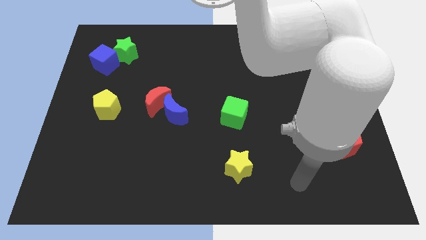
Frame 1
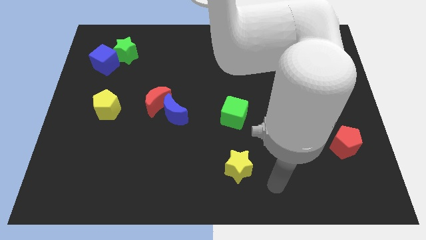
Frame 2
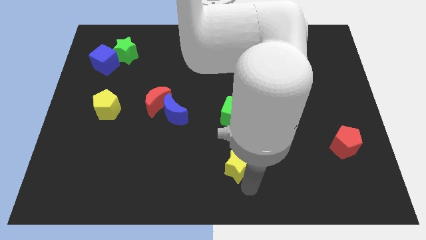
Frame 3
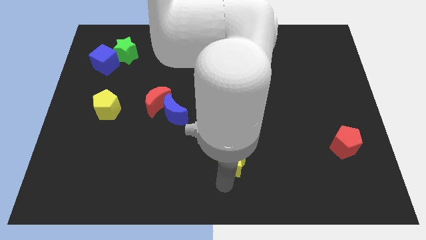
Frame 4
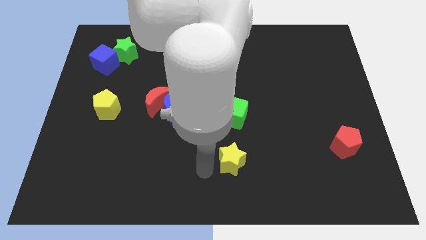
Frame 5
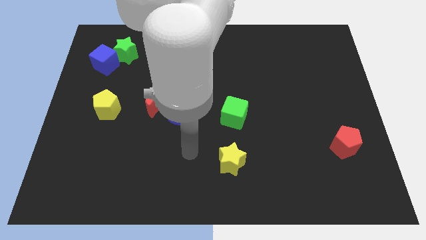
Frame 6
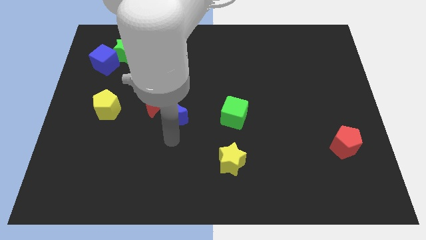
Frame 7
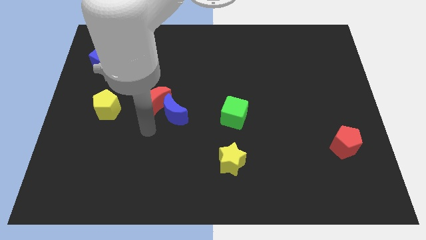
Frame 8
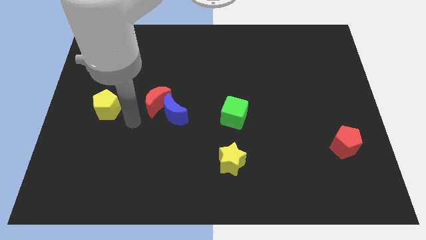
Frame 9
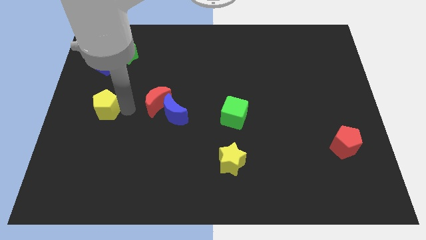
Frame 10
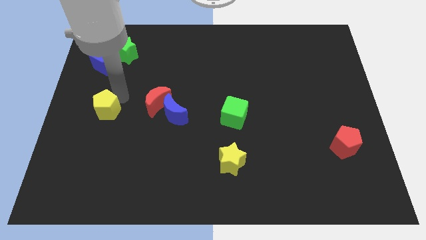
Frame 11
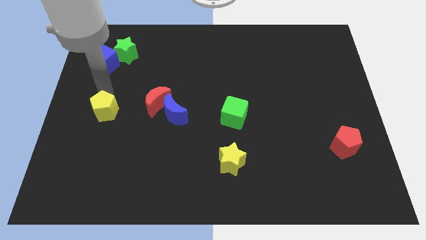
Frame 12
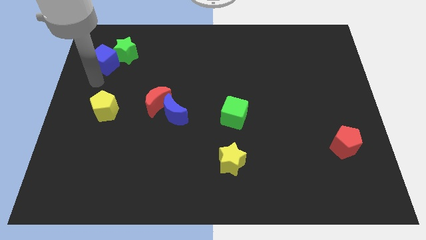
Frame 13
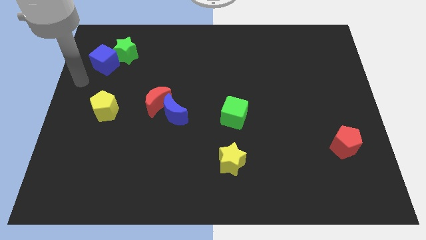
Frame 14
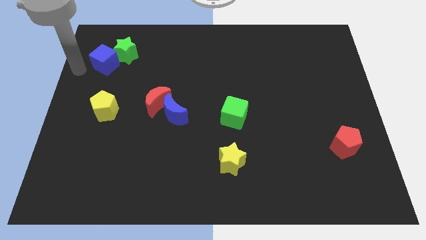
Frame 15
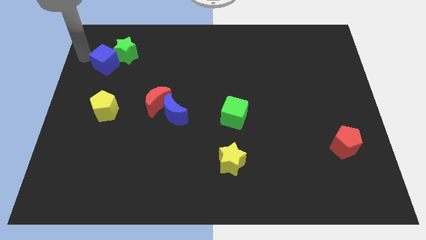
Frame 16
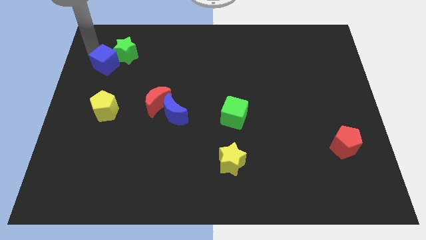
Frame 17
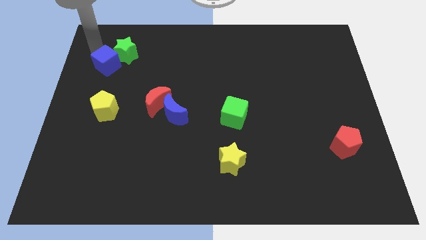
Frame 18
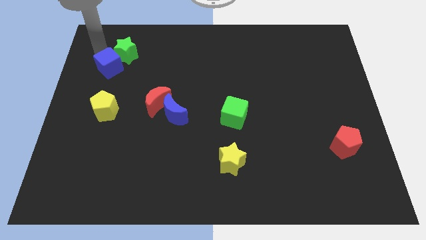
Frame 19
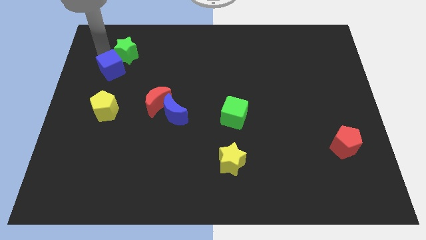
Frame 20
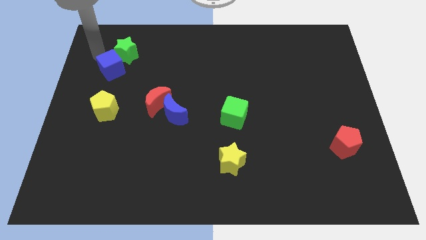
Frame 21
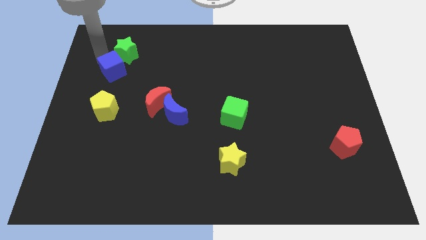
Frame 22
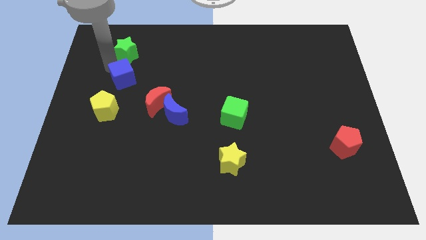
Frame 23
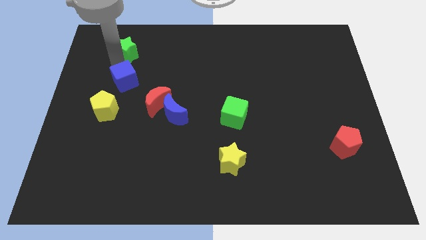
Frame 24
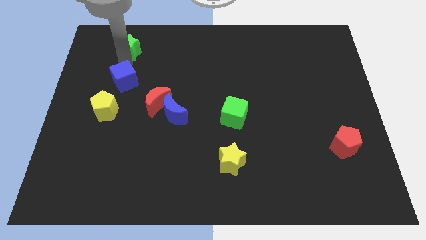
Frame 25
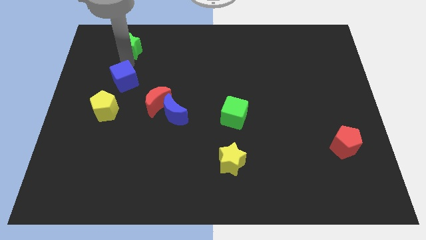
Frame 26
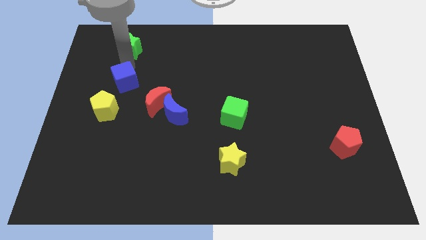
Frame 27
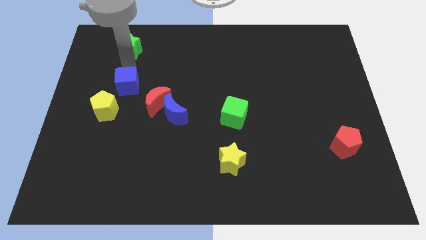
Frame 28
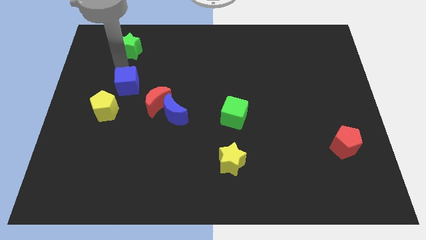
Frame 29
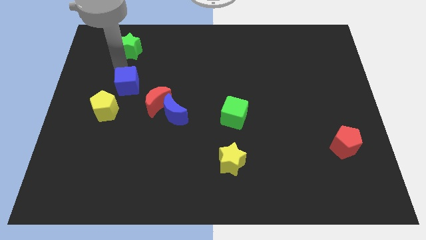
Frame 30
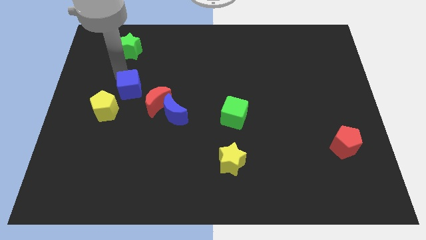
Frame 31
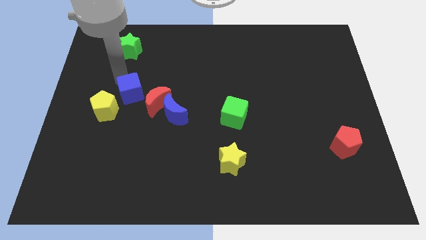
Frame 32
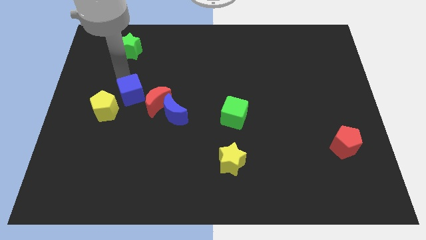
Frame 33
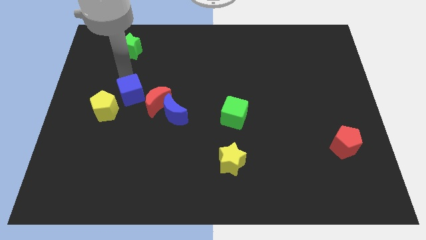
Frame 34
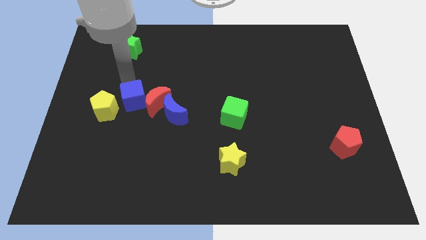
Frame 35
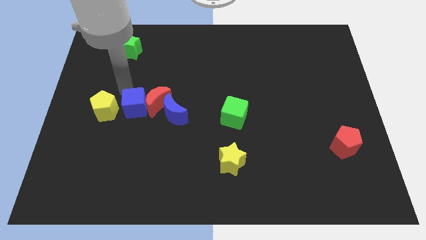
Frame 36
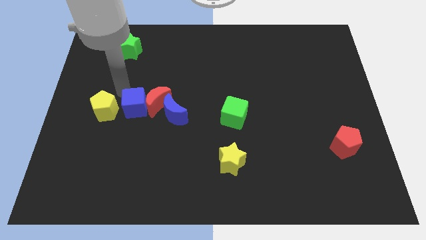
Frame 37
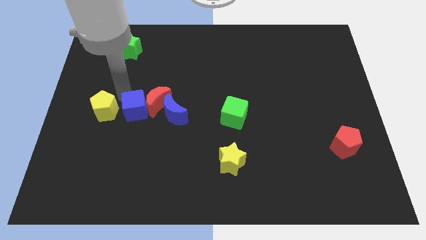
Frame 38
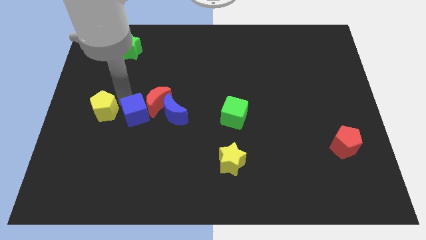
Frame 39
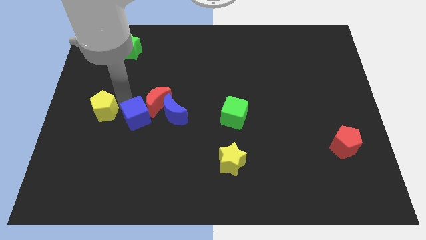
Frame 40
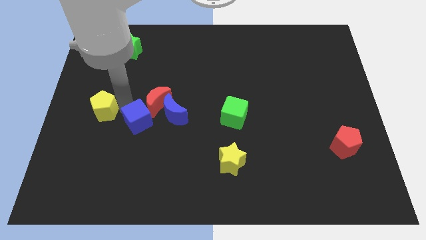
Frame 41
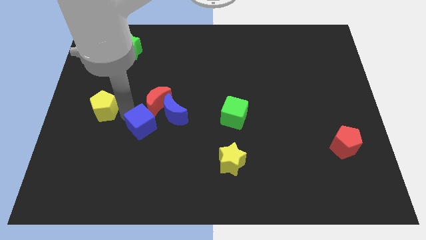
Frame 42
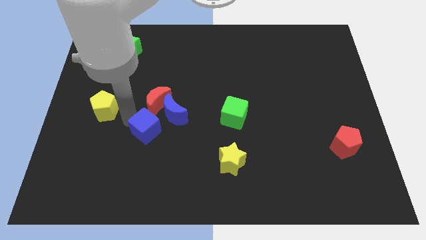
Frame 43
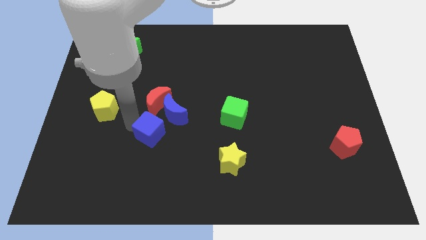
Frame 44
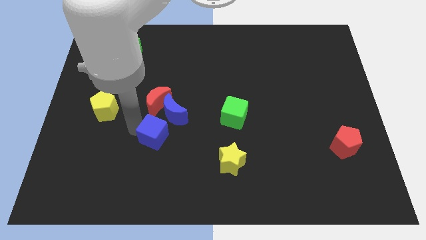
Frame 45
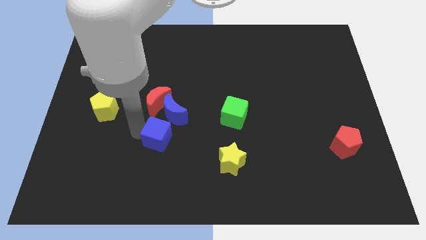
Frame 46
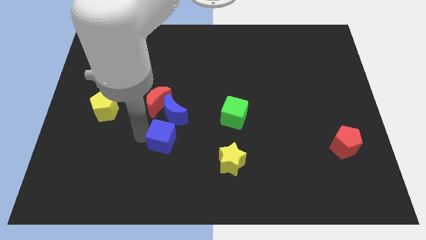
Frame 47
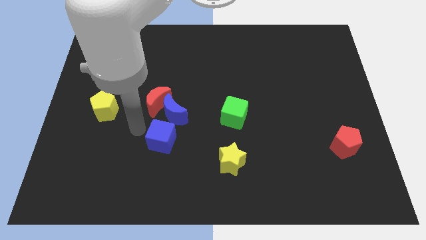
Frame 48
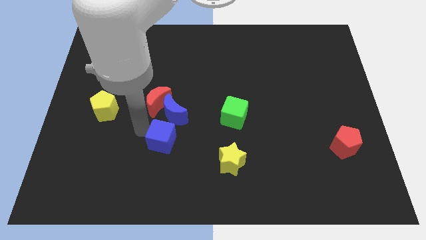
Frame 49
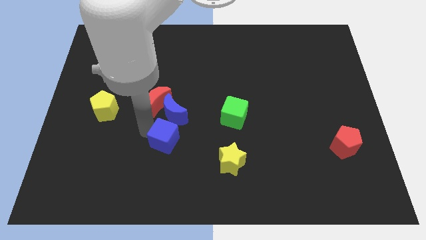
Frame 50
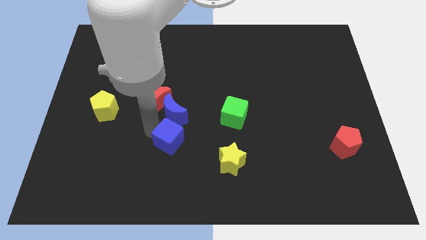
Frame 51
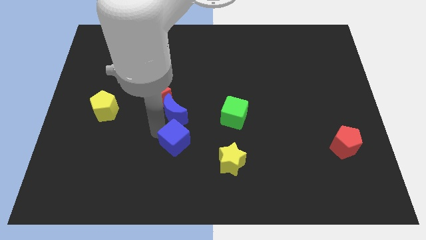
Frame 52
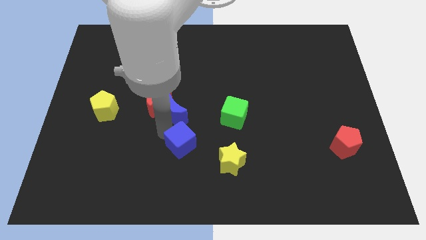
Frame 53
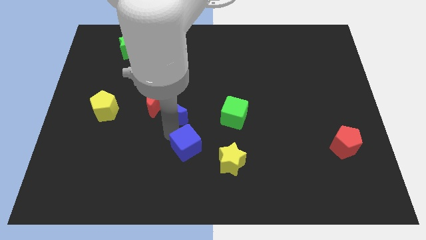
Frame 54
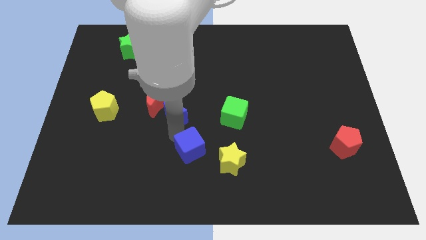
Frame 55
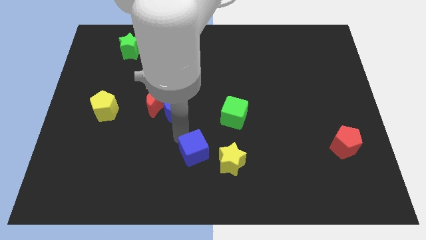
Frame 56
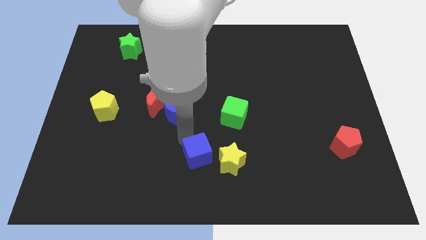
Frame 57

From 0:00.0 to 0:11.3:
push the blue cube to the bottom side
